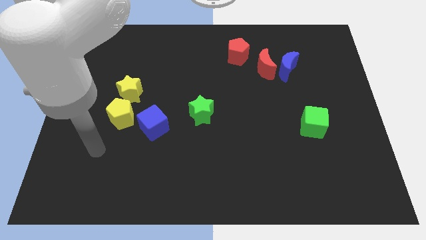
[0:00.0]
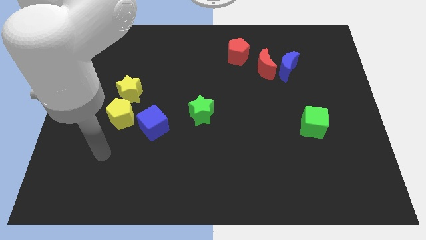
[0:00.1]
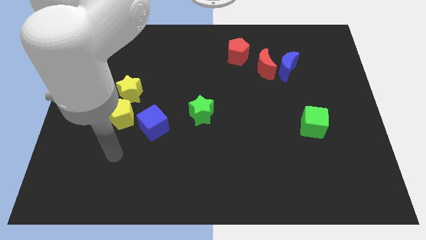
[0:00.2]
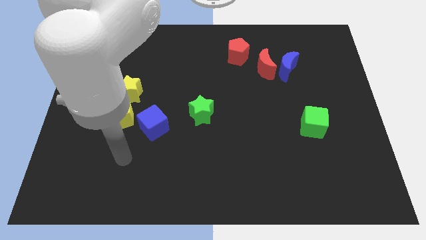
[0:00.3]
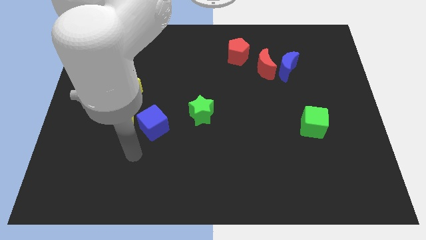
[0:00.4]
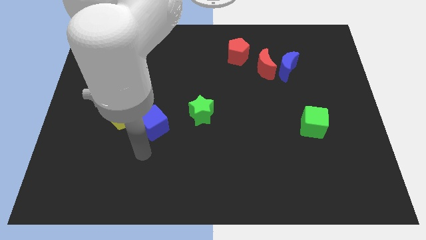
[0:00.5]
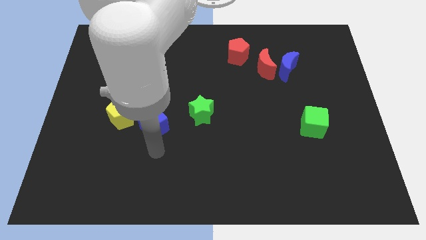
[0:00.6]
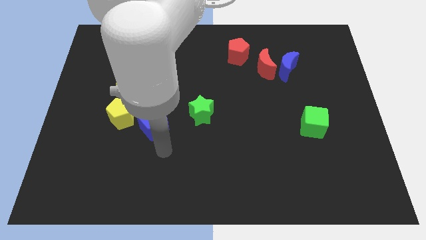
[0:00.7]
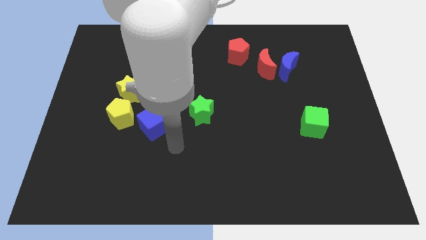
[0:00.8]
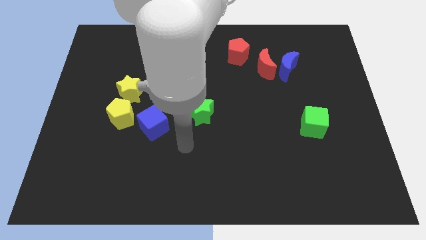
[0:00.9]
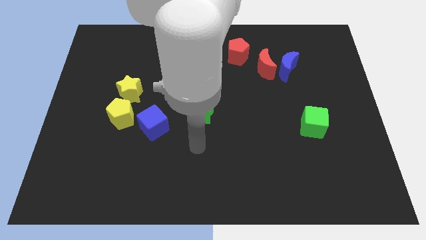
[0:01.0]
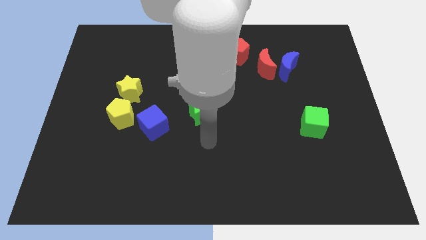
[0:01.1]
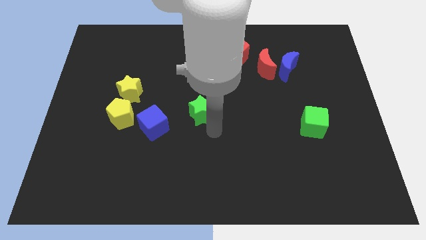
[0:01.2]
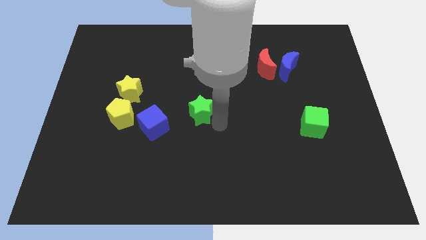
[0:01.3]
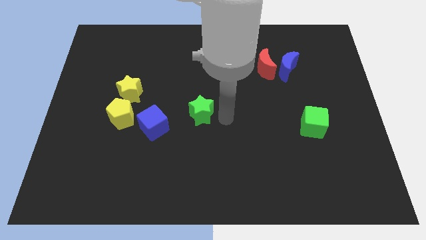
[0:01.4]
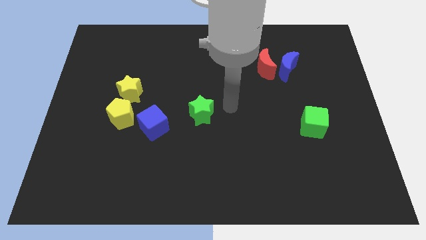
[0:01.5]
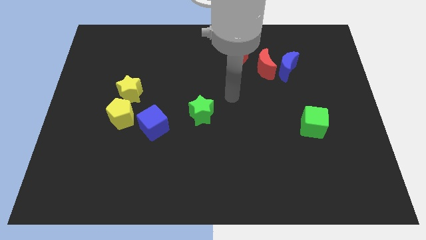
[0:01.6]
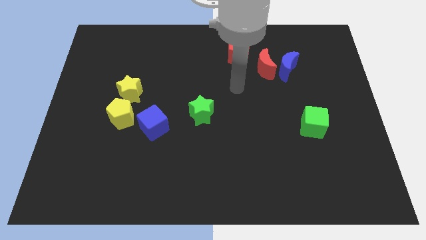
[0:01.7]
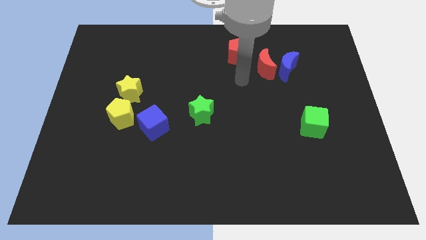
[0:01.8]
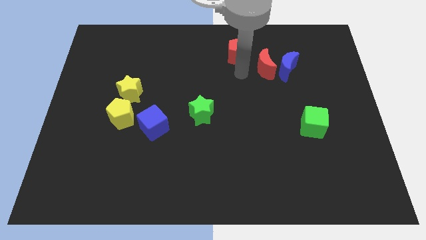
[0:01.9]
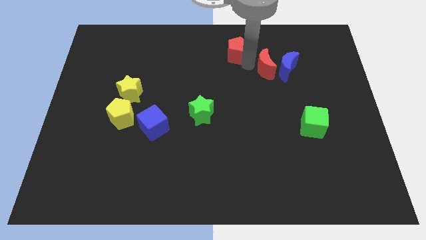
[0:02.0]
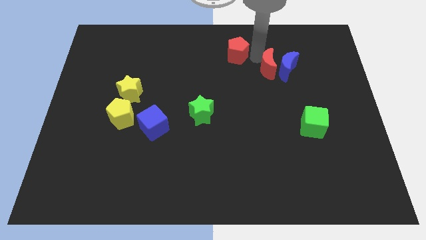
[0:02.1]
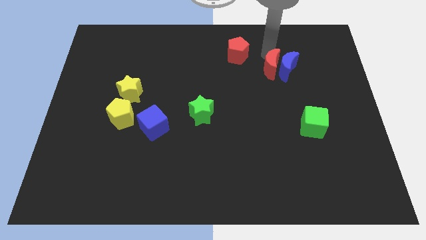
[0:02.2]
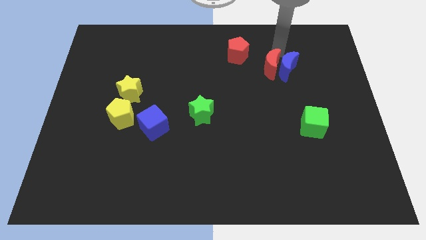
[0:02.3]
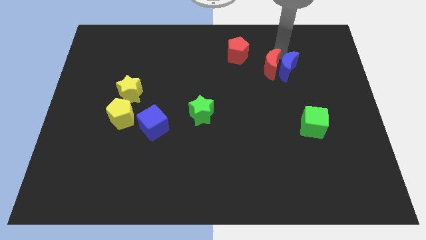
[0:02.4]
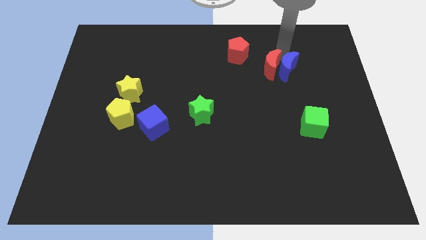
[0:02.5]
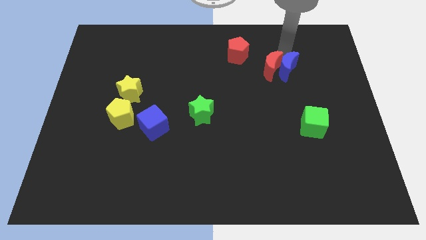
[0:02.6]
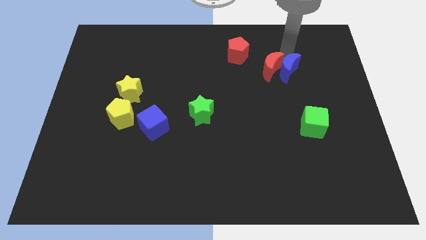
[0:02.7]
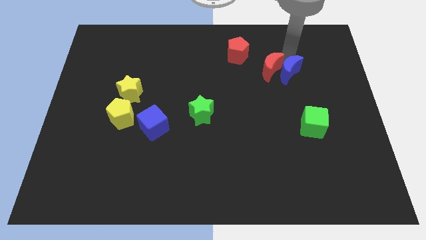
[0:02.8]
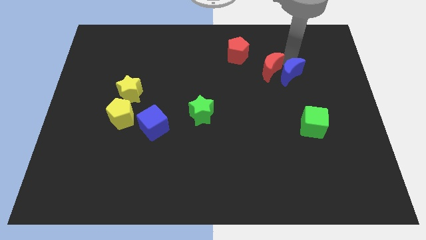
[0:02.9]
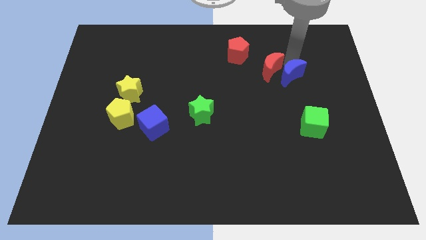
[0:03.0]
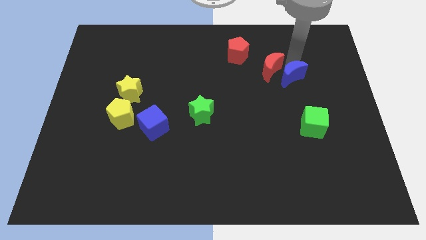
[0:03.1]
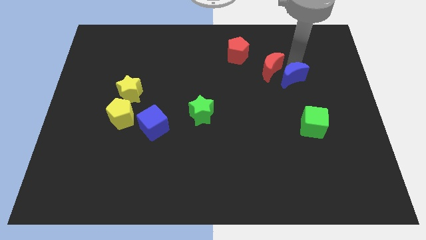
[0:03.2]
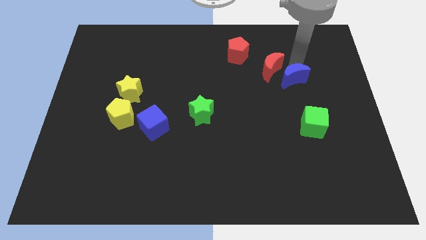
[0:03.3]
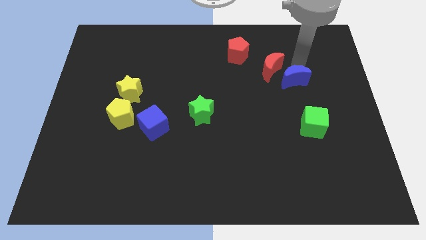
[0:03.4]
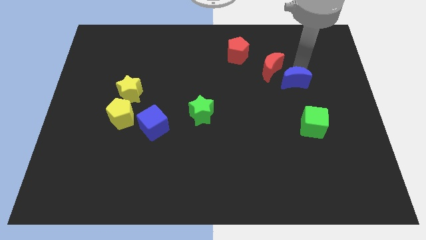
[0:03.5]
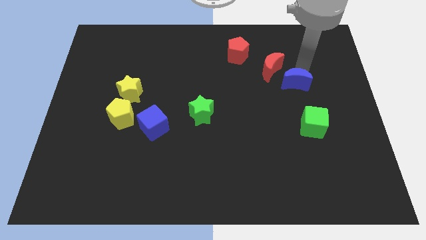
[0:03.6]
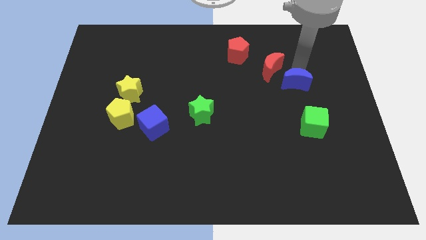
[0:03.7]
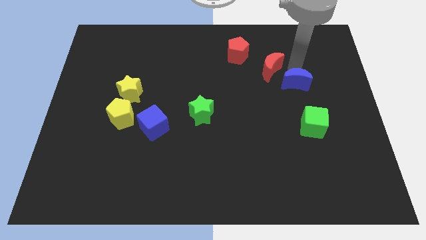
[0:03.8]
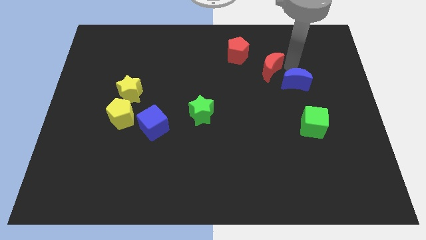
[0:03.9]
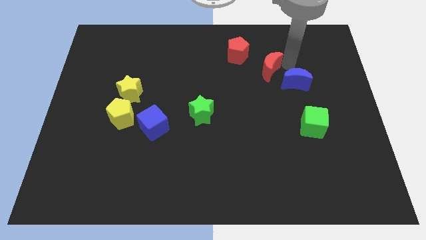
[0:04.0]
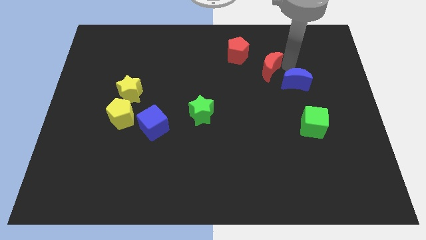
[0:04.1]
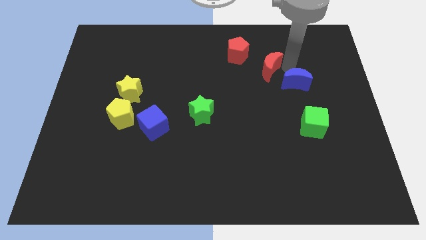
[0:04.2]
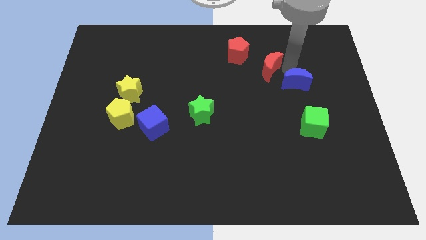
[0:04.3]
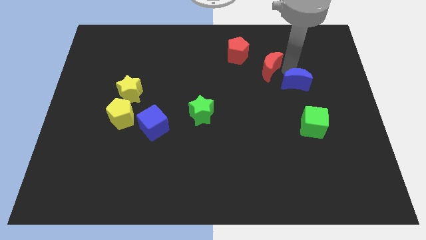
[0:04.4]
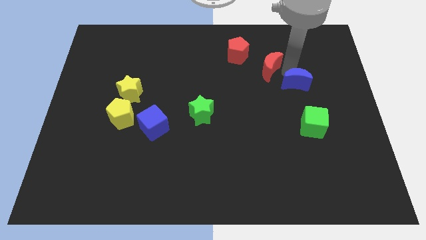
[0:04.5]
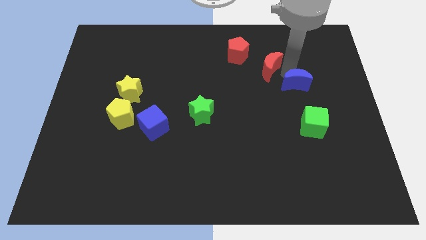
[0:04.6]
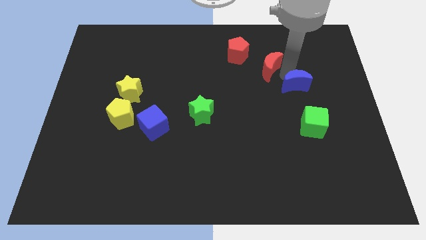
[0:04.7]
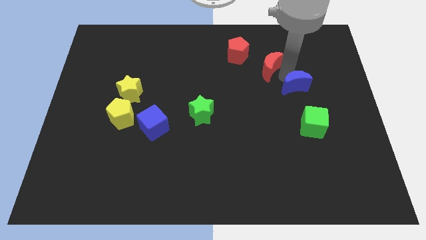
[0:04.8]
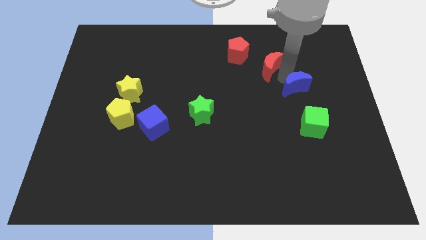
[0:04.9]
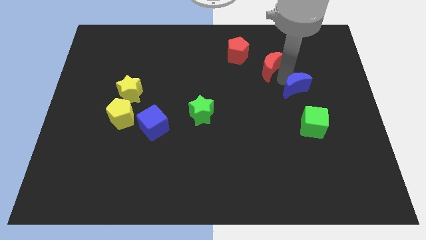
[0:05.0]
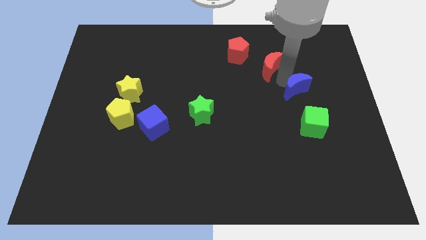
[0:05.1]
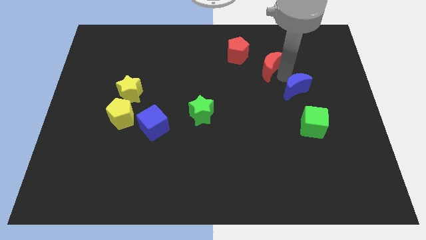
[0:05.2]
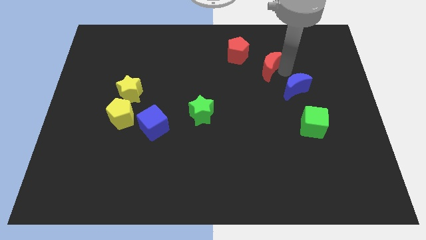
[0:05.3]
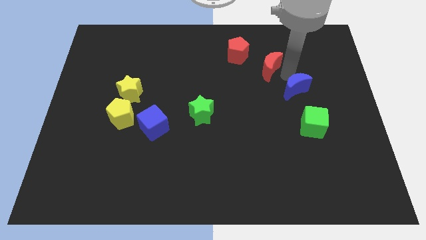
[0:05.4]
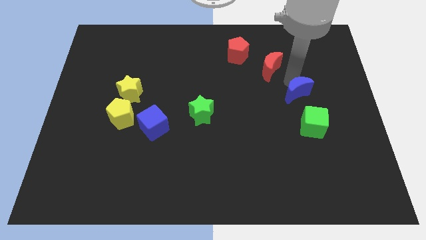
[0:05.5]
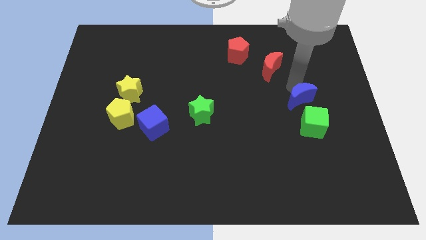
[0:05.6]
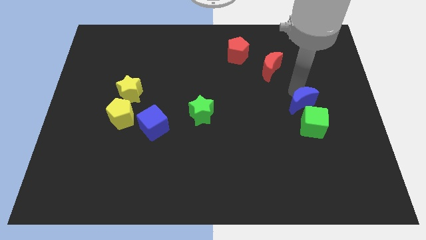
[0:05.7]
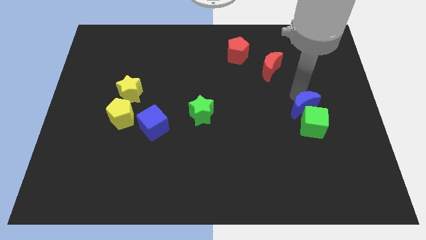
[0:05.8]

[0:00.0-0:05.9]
move the blue moon next to the green cube

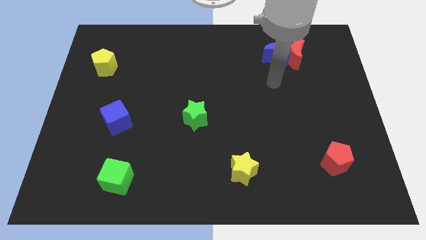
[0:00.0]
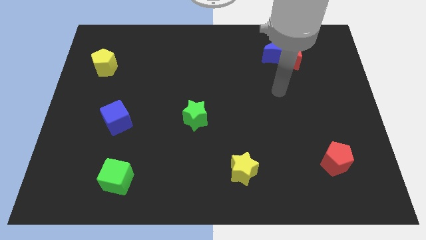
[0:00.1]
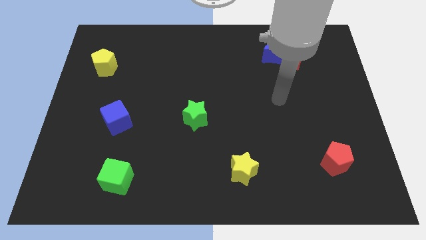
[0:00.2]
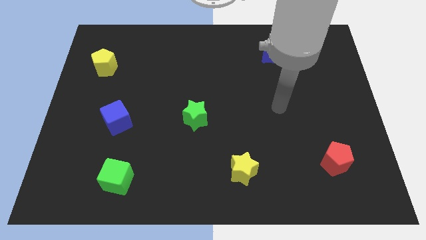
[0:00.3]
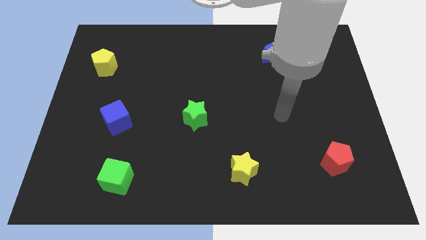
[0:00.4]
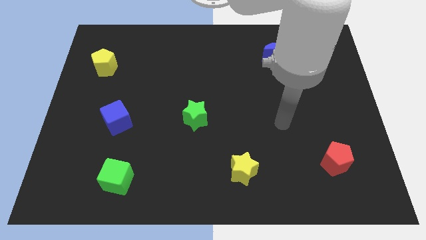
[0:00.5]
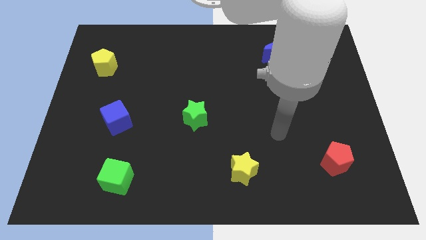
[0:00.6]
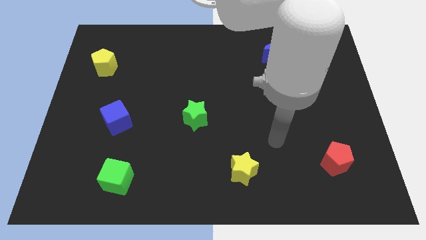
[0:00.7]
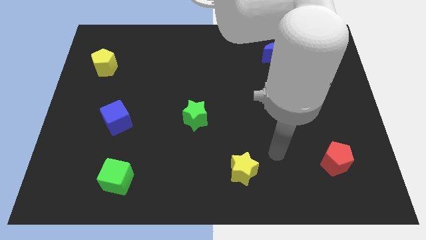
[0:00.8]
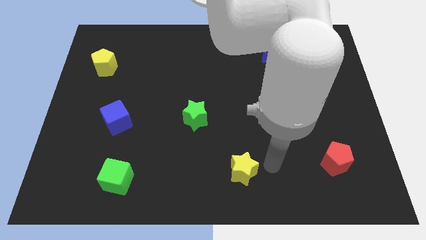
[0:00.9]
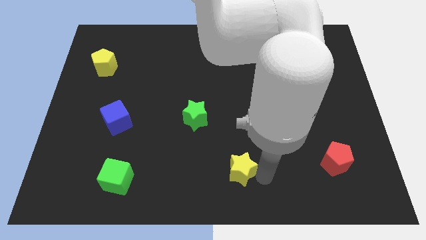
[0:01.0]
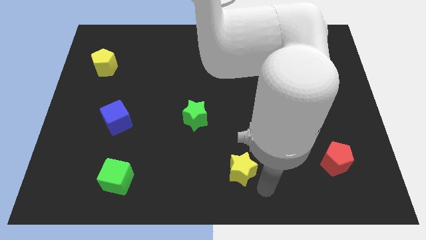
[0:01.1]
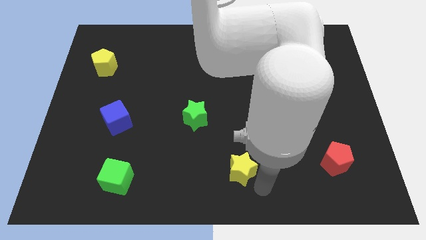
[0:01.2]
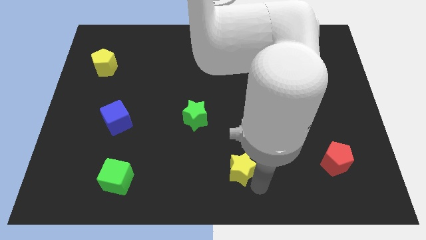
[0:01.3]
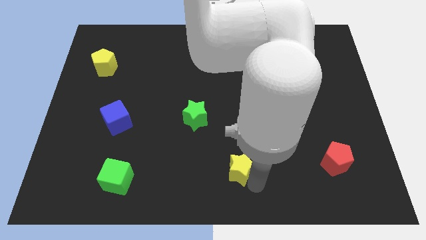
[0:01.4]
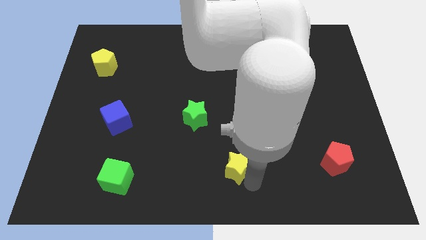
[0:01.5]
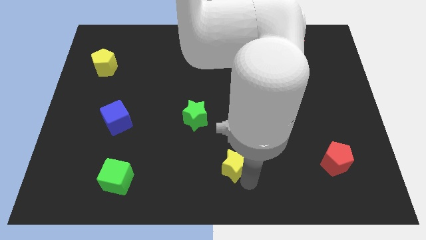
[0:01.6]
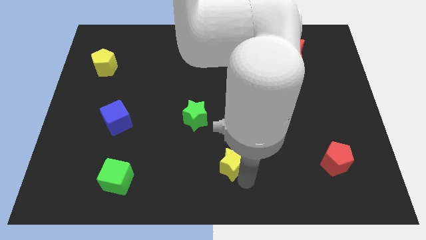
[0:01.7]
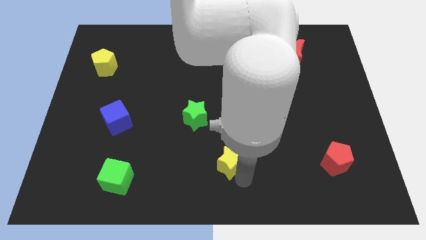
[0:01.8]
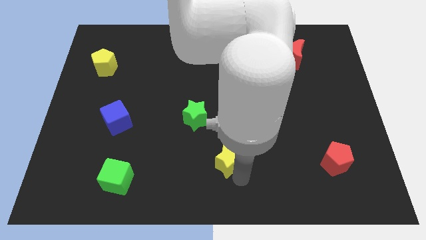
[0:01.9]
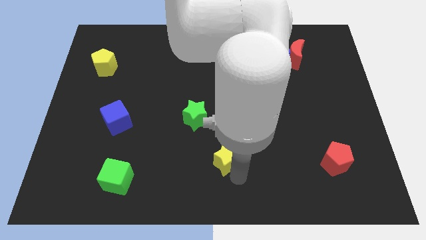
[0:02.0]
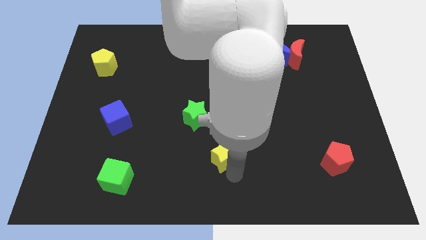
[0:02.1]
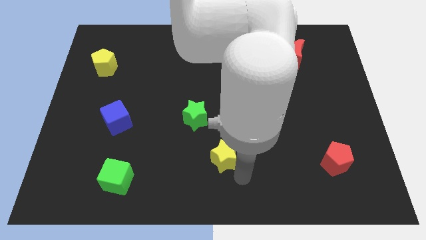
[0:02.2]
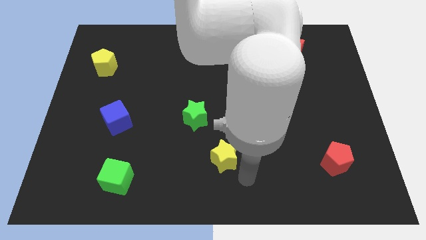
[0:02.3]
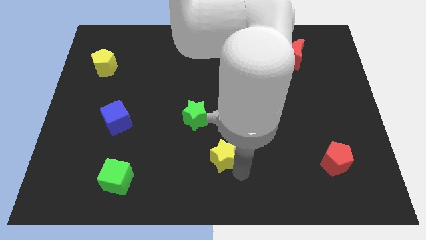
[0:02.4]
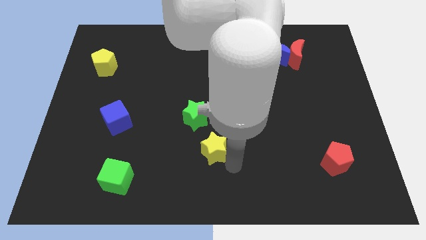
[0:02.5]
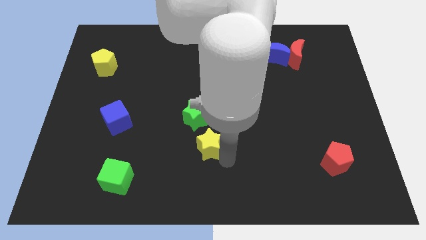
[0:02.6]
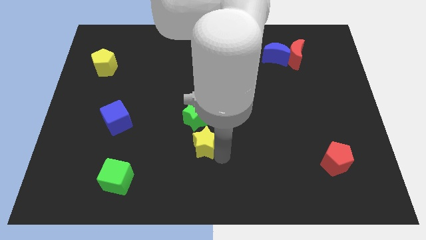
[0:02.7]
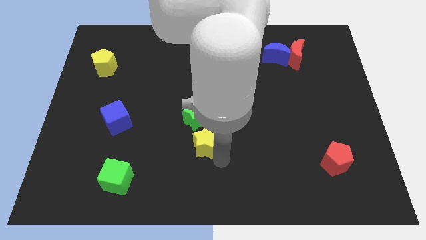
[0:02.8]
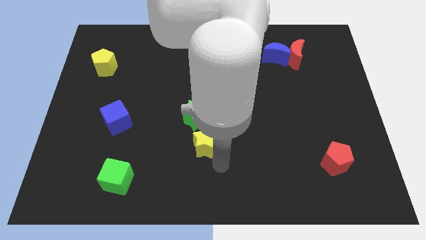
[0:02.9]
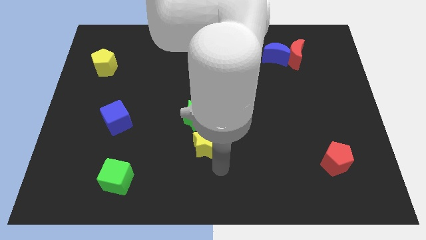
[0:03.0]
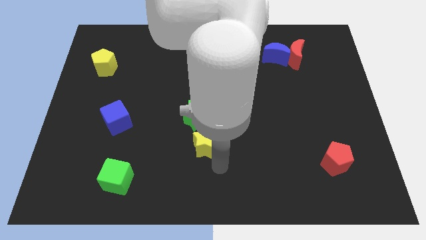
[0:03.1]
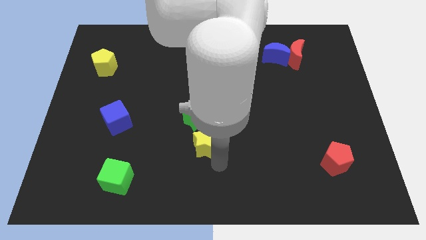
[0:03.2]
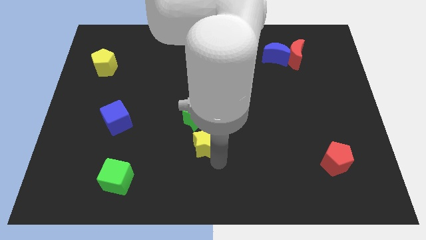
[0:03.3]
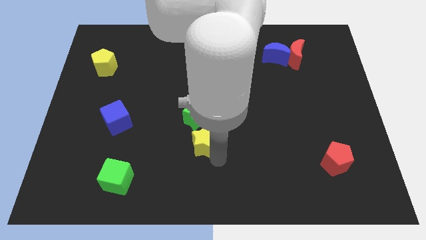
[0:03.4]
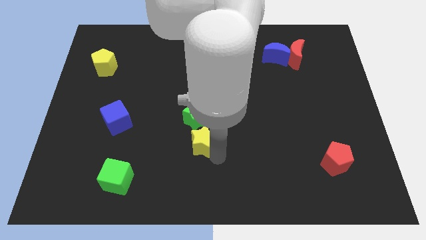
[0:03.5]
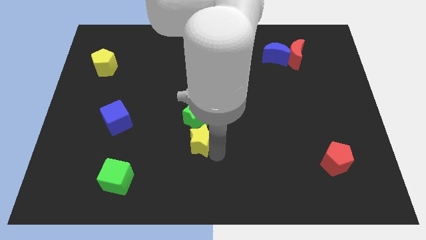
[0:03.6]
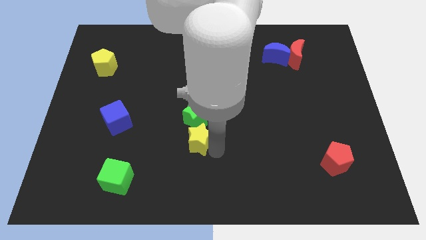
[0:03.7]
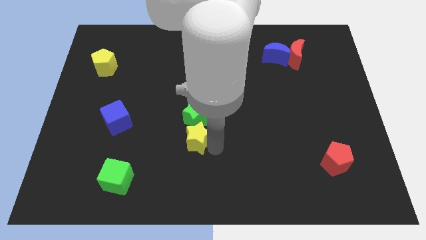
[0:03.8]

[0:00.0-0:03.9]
move the yellow star towards the green star
